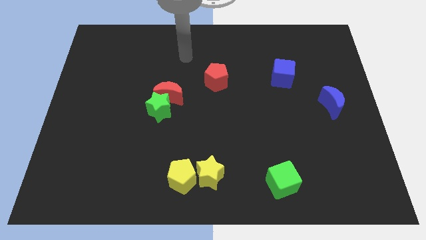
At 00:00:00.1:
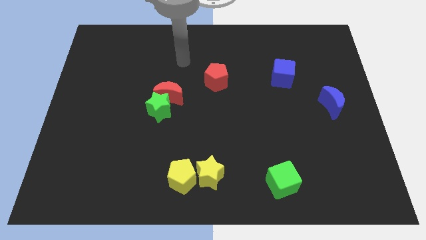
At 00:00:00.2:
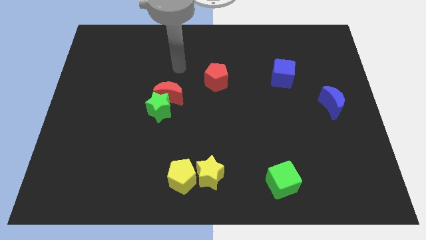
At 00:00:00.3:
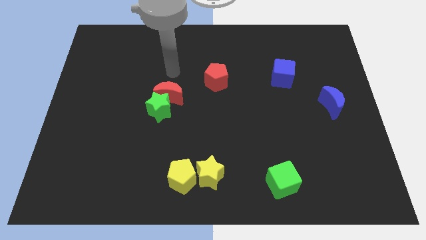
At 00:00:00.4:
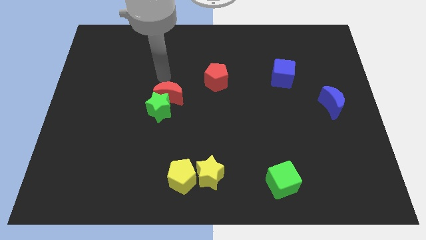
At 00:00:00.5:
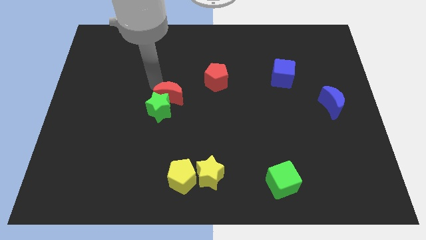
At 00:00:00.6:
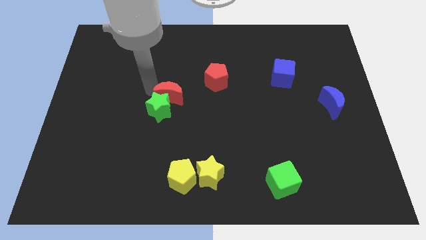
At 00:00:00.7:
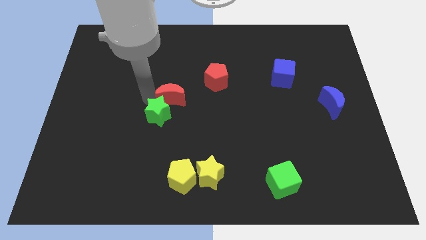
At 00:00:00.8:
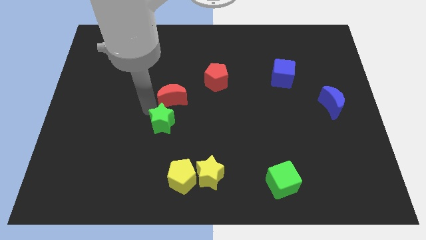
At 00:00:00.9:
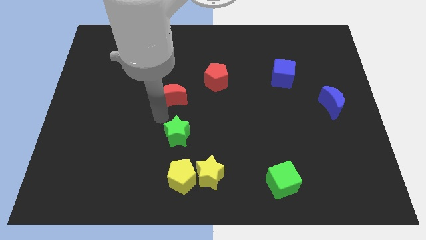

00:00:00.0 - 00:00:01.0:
separate the red moon from the green star

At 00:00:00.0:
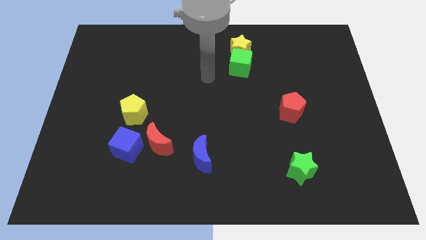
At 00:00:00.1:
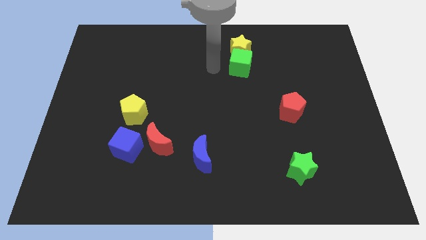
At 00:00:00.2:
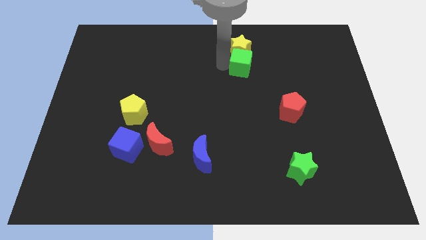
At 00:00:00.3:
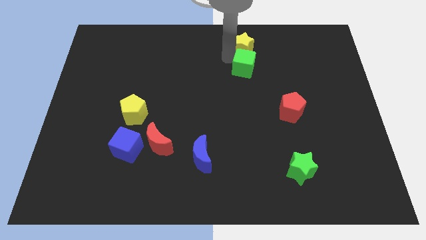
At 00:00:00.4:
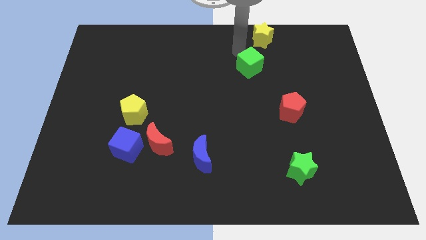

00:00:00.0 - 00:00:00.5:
move the green cube away from the yellow star

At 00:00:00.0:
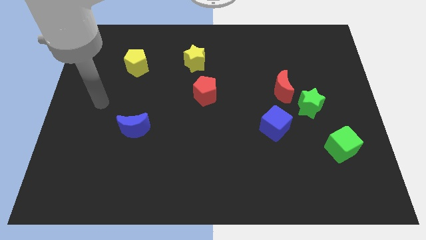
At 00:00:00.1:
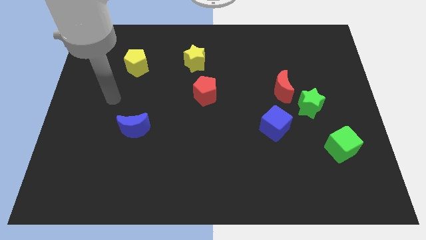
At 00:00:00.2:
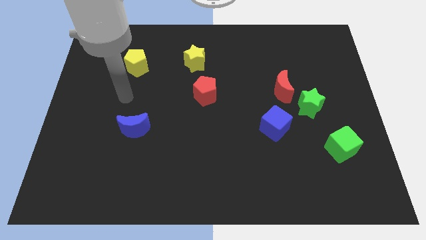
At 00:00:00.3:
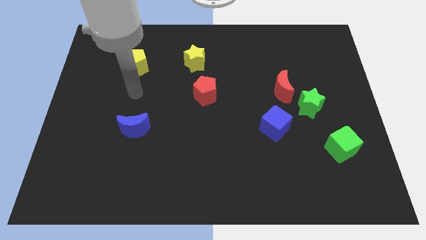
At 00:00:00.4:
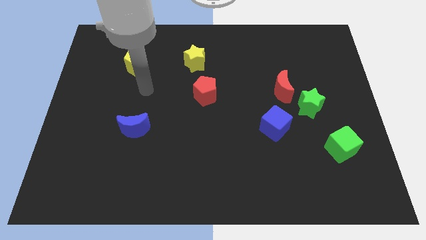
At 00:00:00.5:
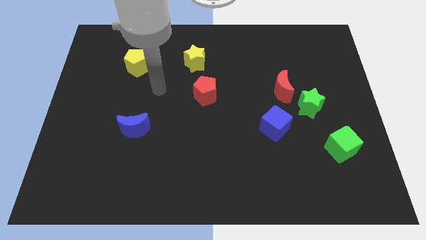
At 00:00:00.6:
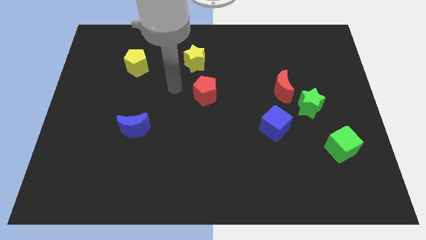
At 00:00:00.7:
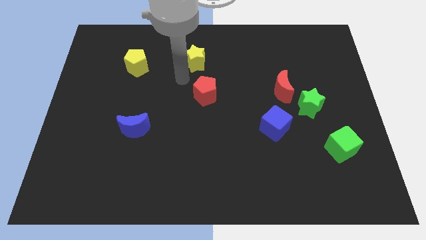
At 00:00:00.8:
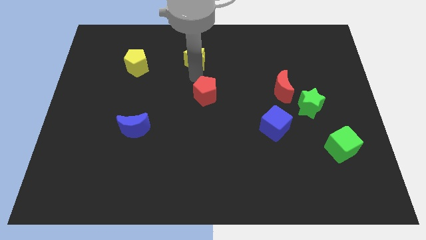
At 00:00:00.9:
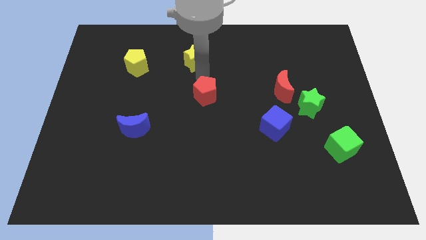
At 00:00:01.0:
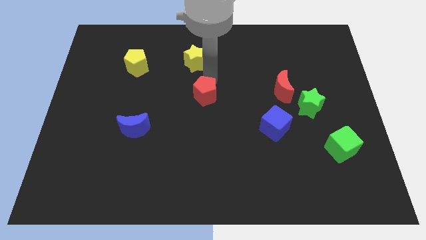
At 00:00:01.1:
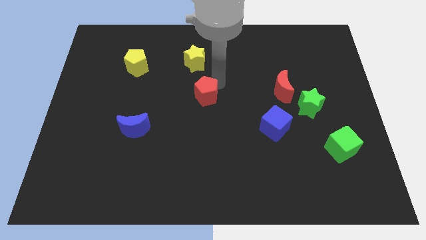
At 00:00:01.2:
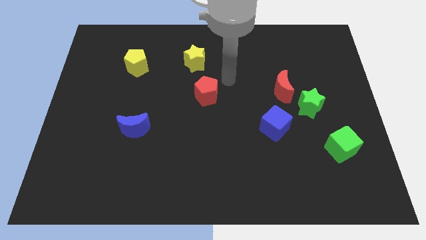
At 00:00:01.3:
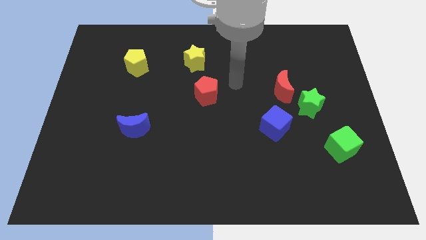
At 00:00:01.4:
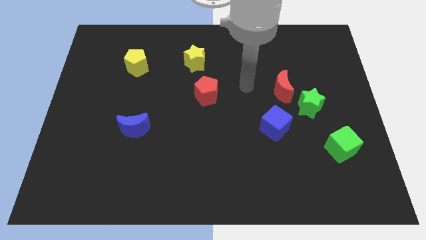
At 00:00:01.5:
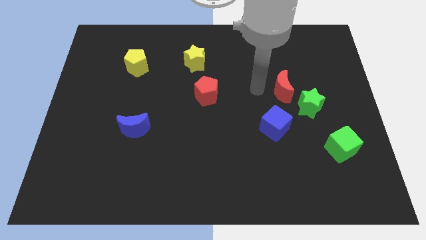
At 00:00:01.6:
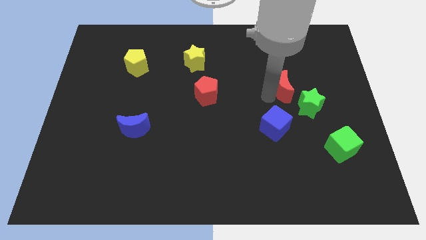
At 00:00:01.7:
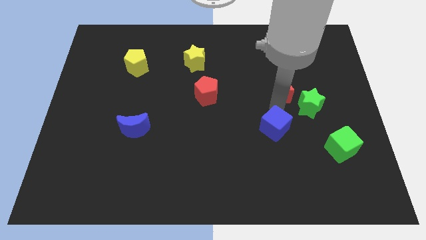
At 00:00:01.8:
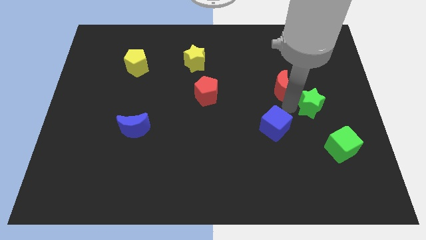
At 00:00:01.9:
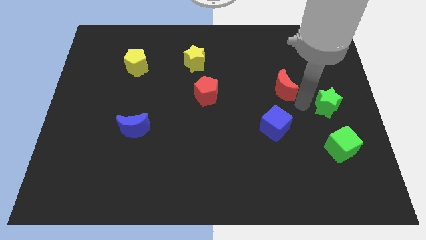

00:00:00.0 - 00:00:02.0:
pull the red moon apart from the green star

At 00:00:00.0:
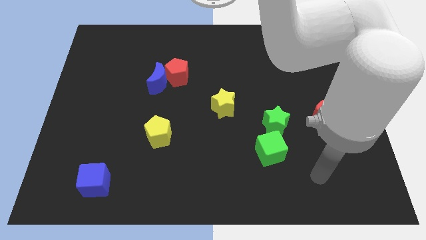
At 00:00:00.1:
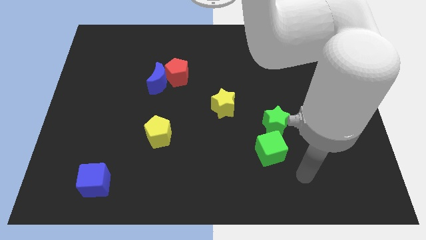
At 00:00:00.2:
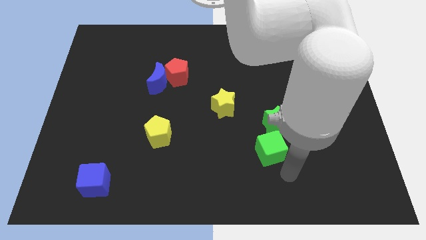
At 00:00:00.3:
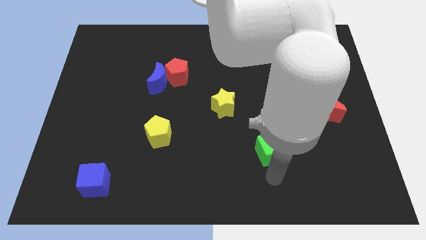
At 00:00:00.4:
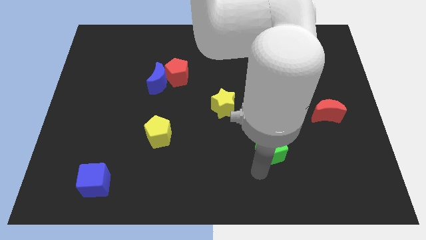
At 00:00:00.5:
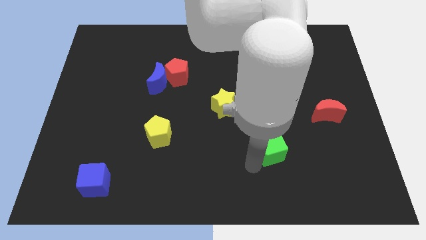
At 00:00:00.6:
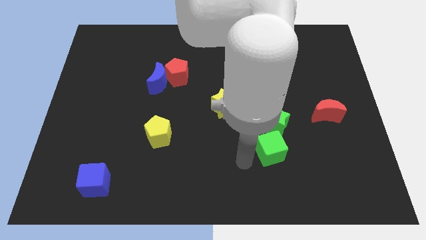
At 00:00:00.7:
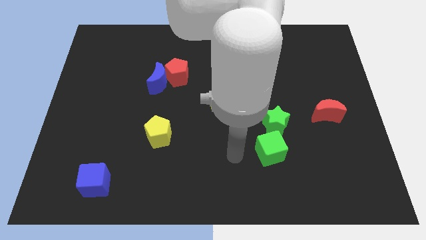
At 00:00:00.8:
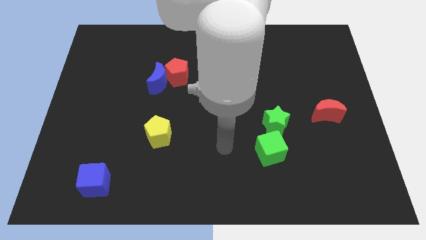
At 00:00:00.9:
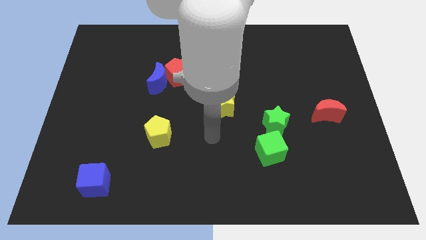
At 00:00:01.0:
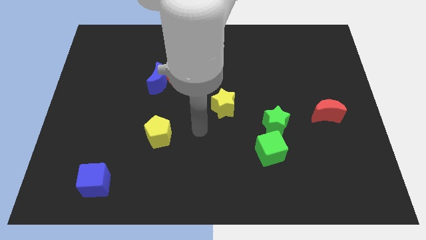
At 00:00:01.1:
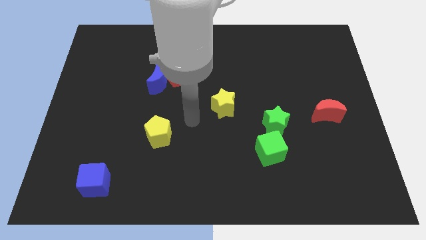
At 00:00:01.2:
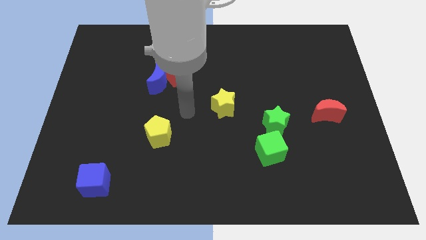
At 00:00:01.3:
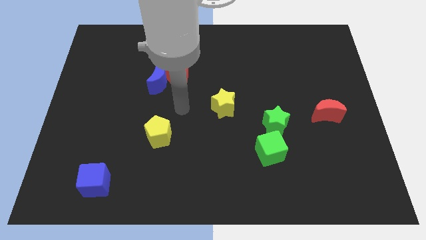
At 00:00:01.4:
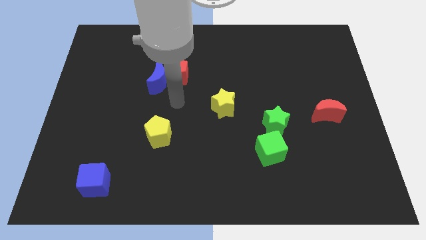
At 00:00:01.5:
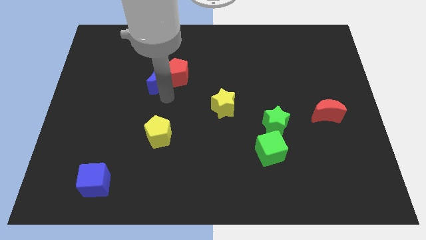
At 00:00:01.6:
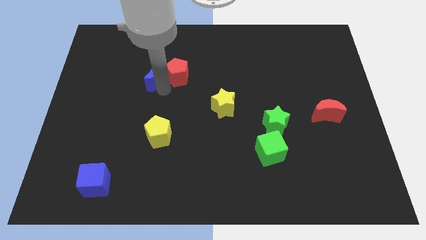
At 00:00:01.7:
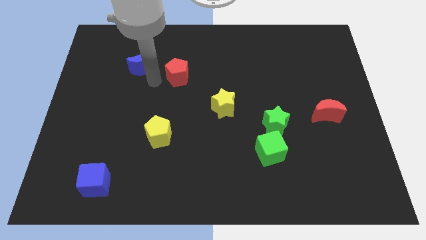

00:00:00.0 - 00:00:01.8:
separate the red pentagon from the blue moon

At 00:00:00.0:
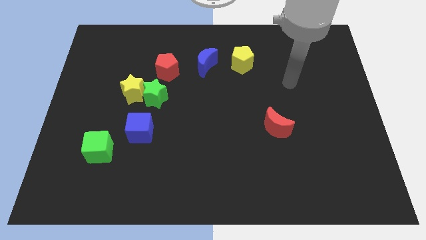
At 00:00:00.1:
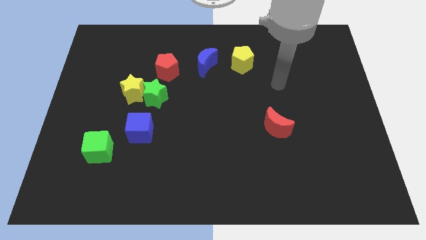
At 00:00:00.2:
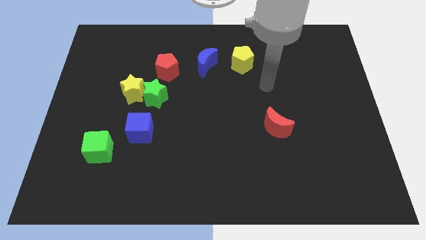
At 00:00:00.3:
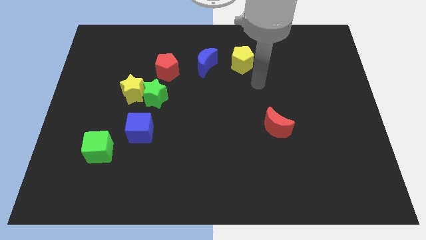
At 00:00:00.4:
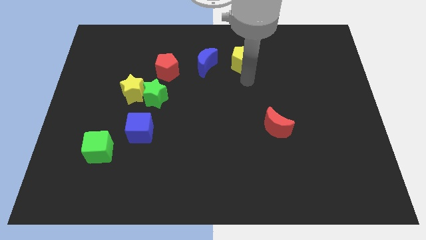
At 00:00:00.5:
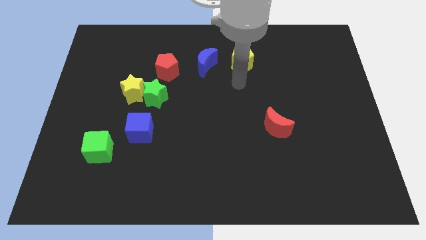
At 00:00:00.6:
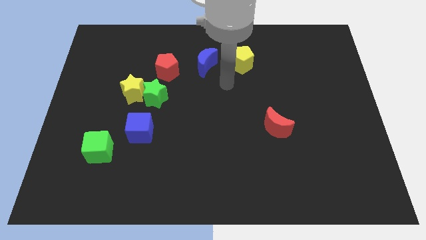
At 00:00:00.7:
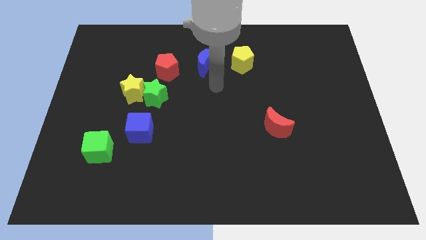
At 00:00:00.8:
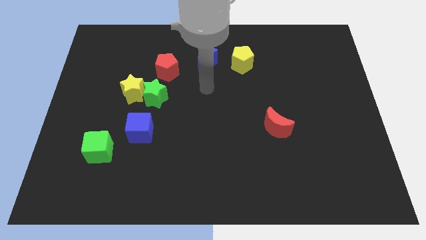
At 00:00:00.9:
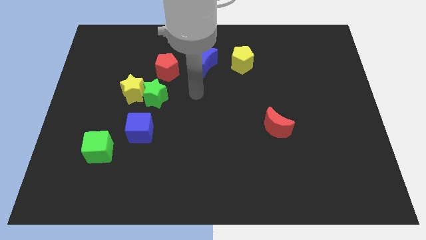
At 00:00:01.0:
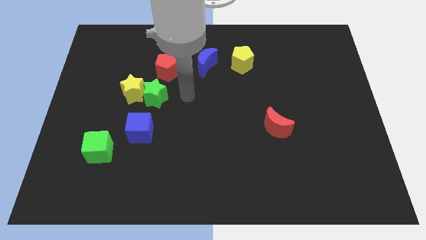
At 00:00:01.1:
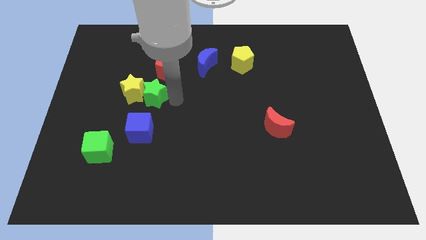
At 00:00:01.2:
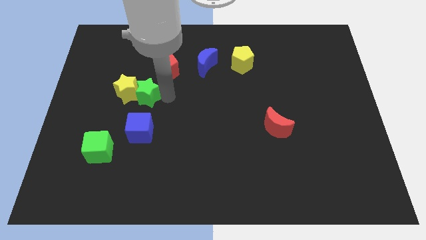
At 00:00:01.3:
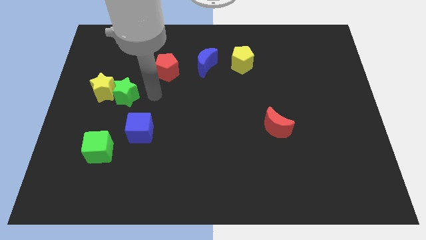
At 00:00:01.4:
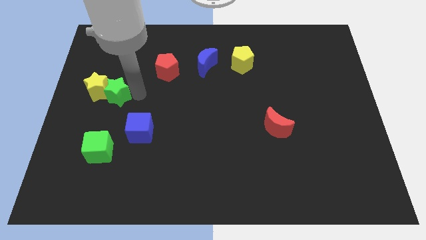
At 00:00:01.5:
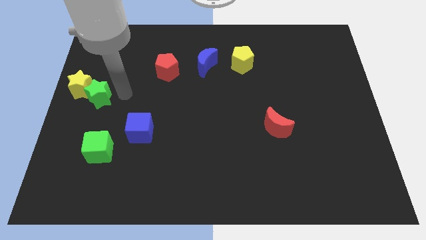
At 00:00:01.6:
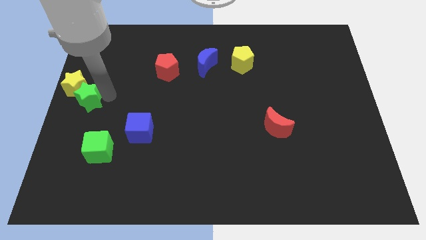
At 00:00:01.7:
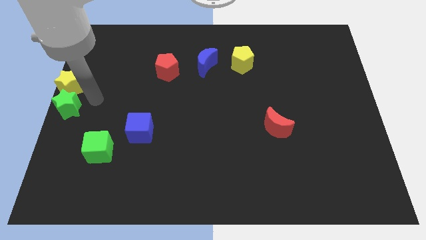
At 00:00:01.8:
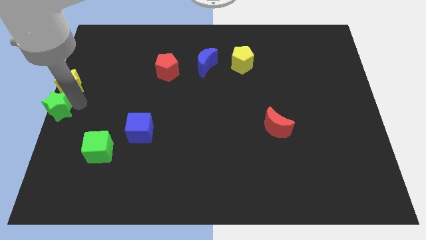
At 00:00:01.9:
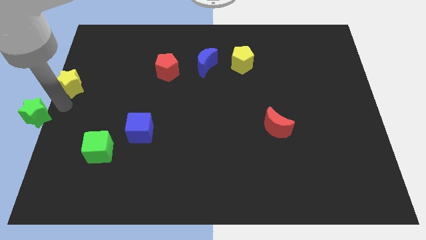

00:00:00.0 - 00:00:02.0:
pull the yellow star apart from the green star

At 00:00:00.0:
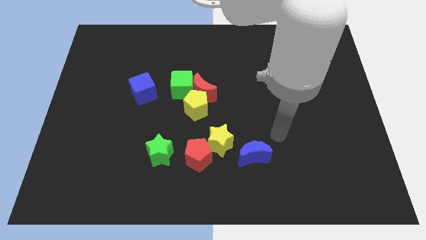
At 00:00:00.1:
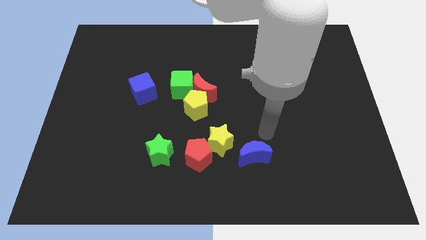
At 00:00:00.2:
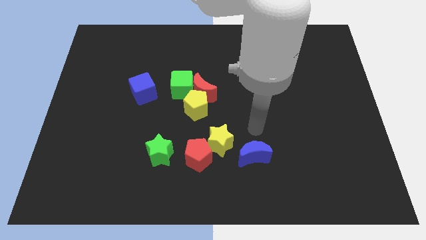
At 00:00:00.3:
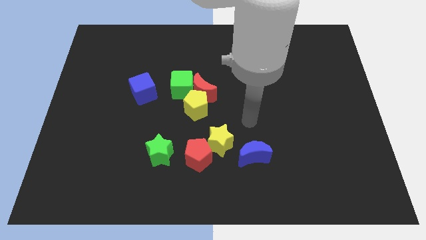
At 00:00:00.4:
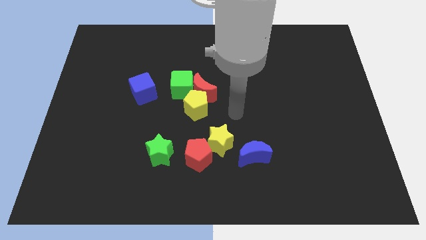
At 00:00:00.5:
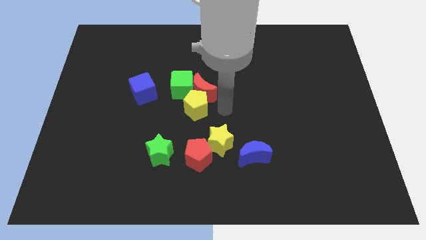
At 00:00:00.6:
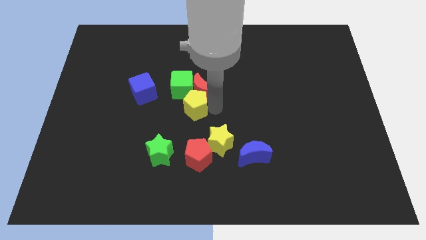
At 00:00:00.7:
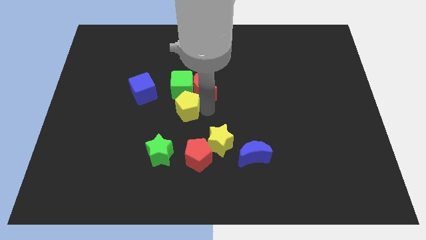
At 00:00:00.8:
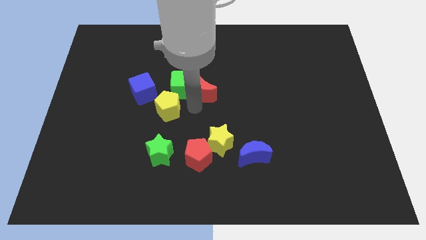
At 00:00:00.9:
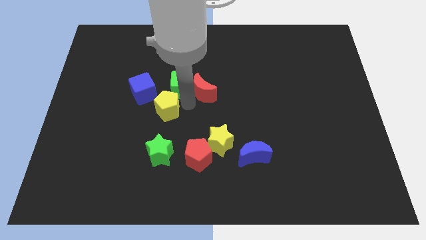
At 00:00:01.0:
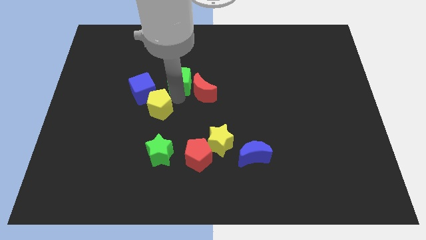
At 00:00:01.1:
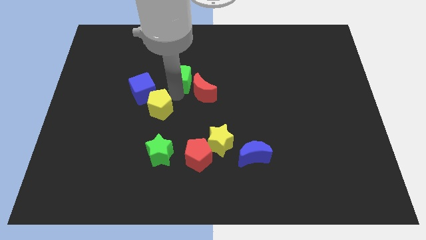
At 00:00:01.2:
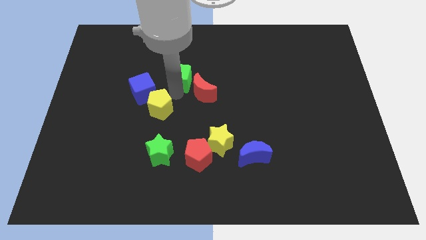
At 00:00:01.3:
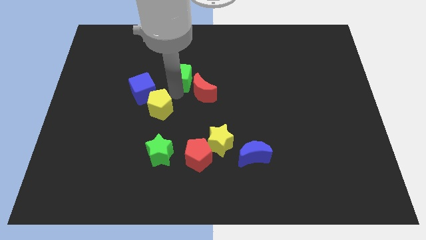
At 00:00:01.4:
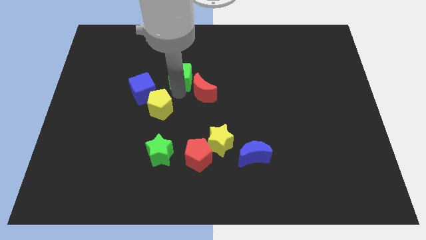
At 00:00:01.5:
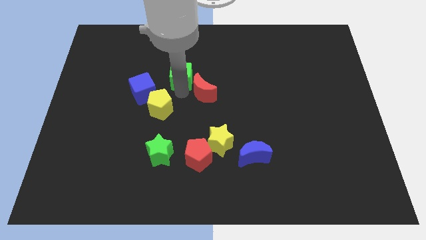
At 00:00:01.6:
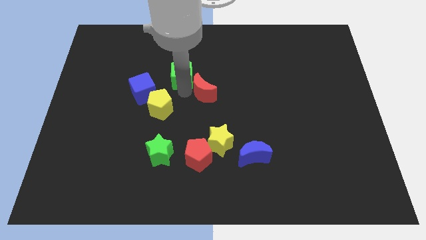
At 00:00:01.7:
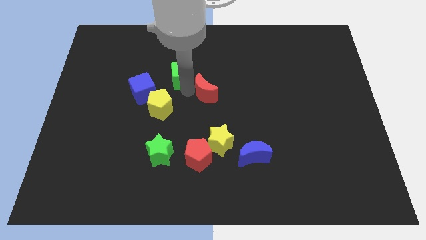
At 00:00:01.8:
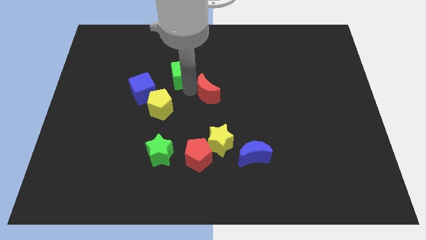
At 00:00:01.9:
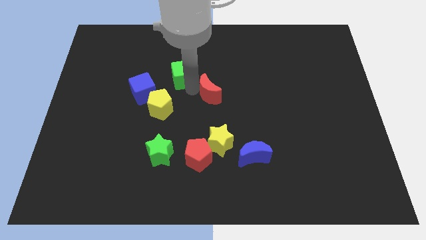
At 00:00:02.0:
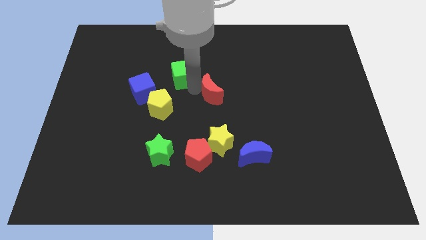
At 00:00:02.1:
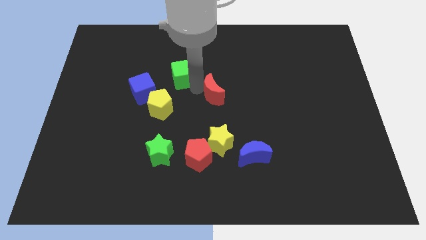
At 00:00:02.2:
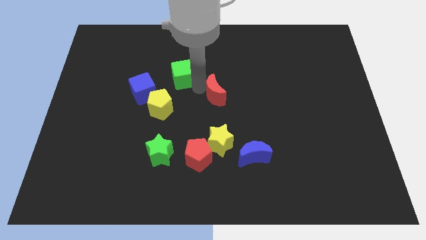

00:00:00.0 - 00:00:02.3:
pull the red moon apart from the yellow pentagon and green cube